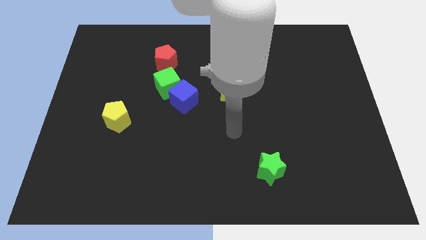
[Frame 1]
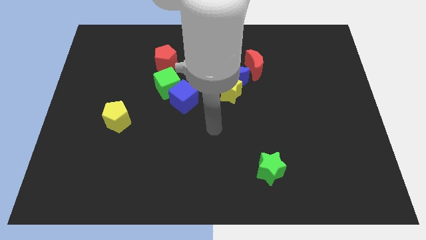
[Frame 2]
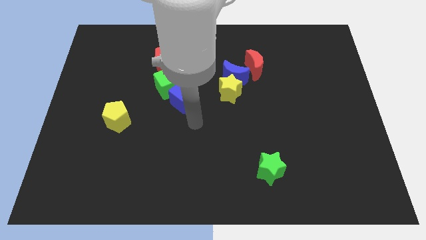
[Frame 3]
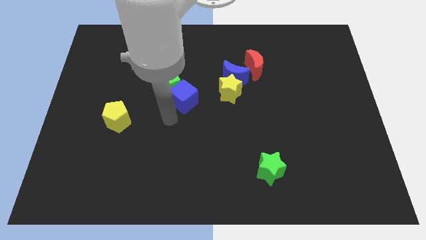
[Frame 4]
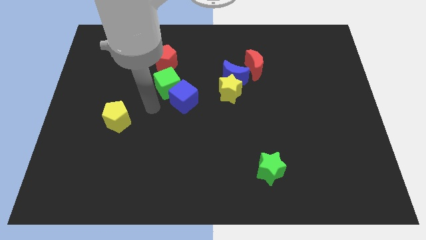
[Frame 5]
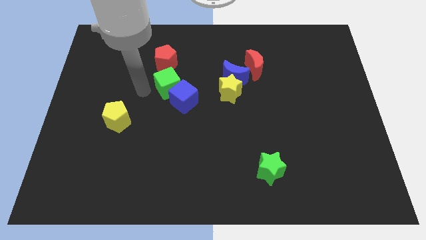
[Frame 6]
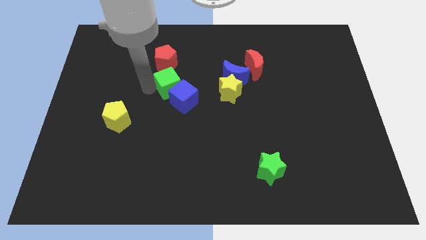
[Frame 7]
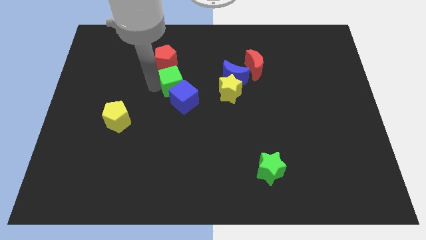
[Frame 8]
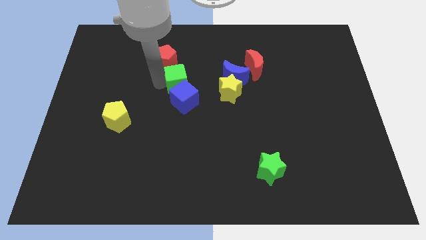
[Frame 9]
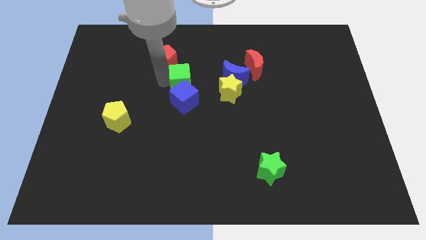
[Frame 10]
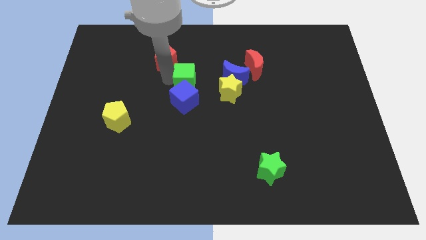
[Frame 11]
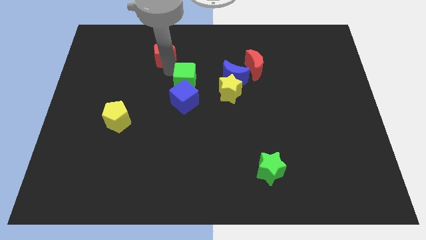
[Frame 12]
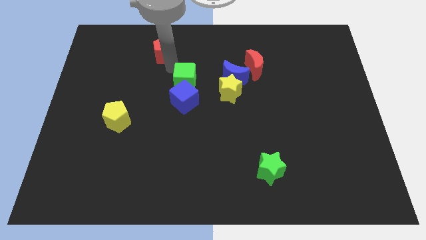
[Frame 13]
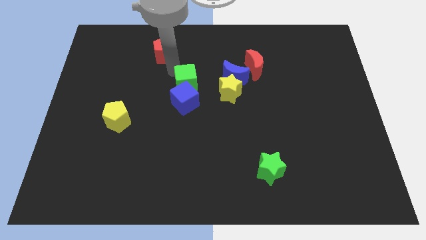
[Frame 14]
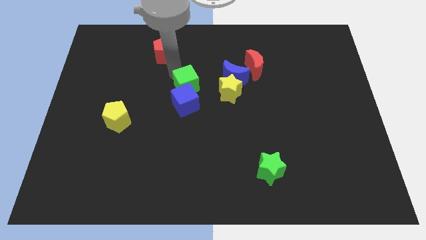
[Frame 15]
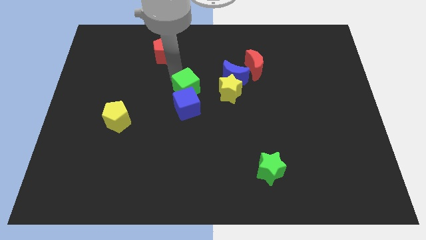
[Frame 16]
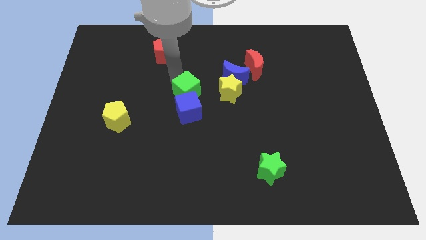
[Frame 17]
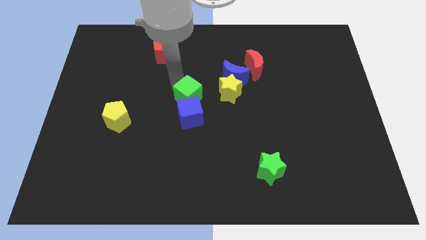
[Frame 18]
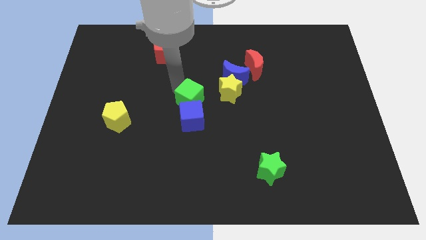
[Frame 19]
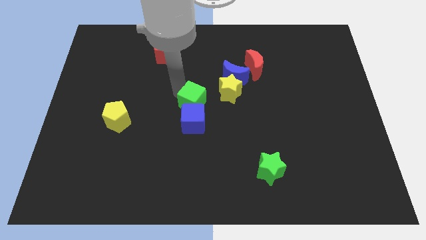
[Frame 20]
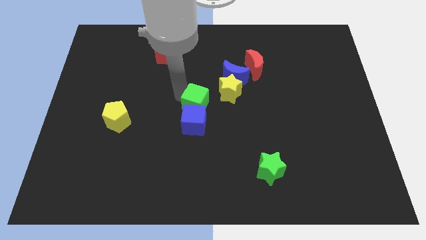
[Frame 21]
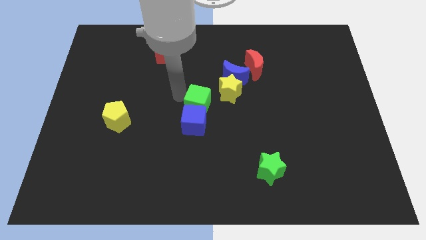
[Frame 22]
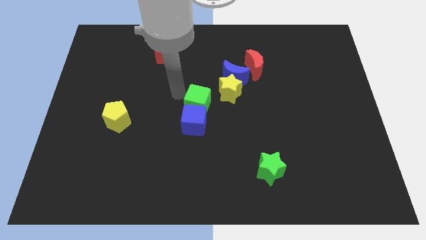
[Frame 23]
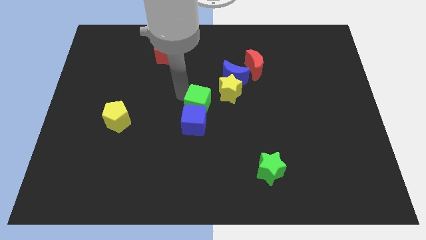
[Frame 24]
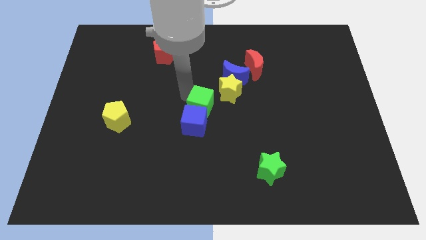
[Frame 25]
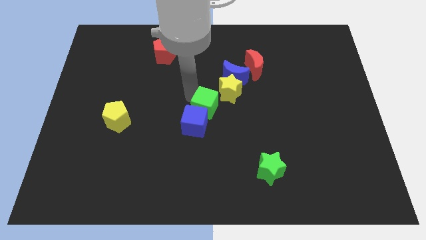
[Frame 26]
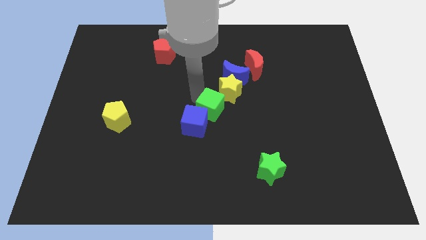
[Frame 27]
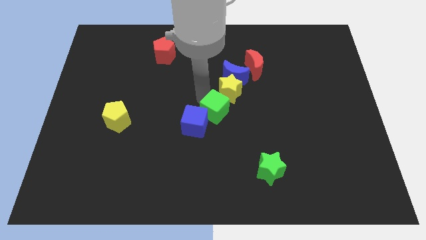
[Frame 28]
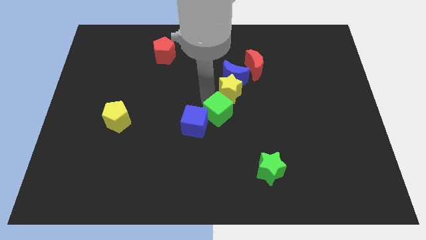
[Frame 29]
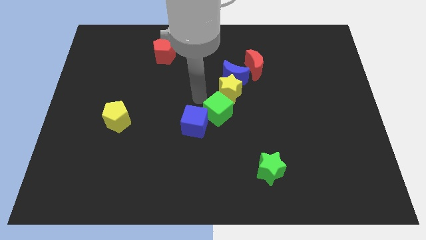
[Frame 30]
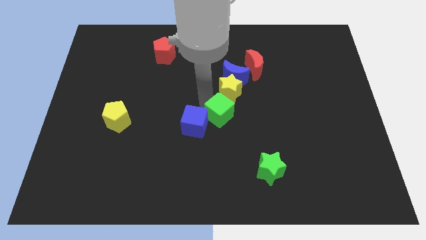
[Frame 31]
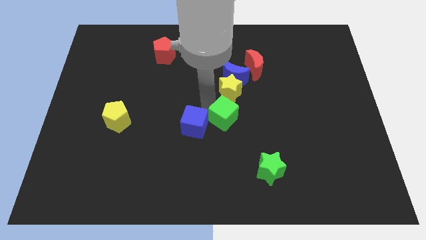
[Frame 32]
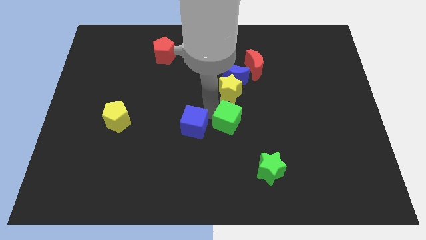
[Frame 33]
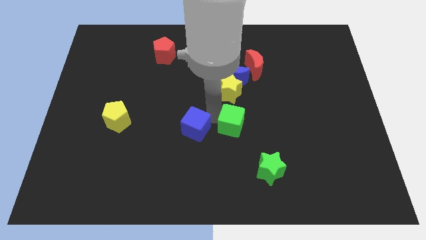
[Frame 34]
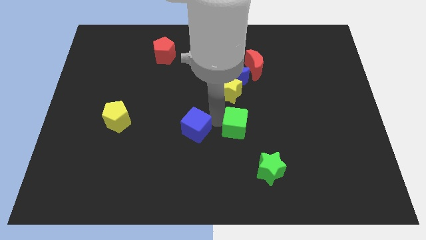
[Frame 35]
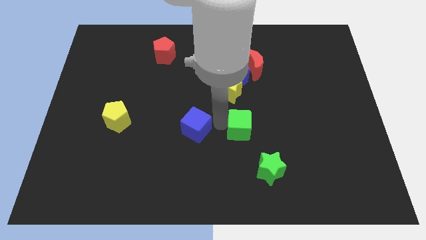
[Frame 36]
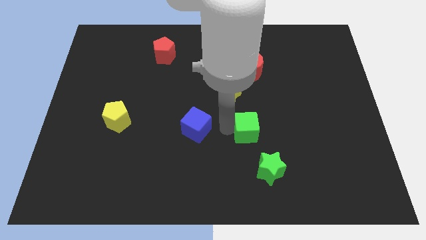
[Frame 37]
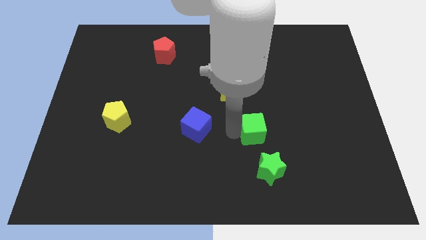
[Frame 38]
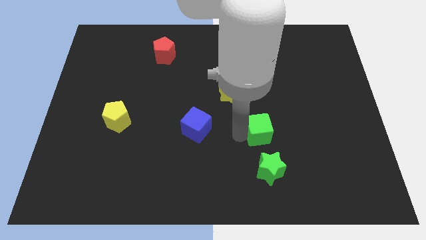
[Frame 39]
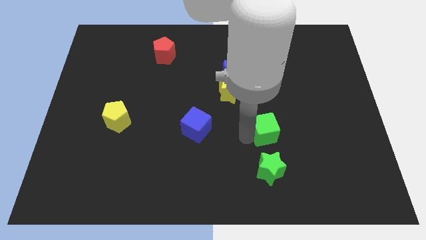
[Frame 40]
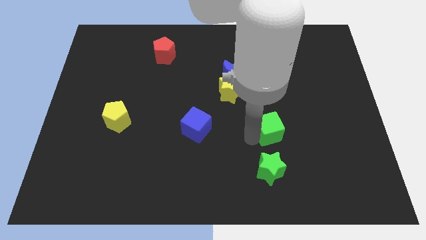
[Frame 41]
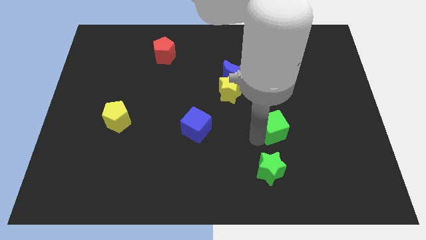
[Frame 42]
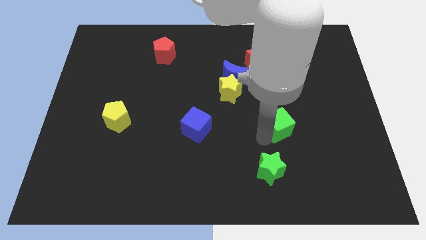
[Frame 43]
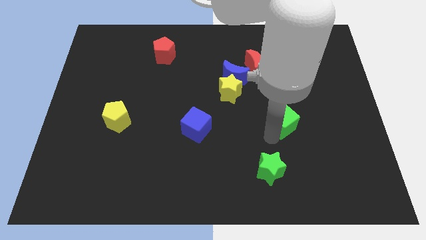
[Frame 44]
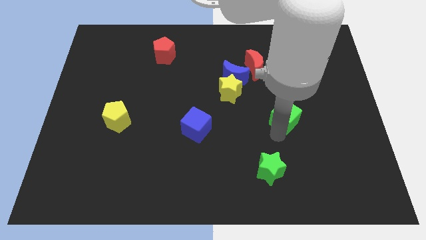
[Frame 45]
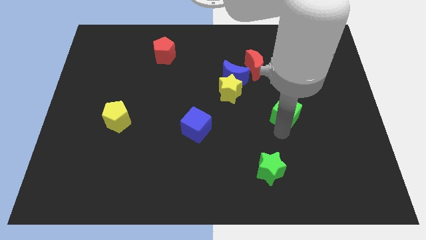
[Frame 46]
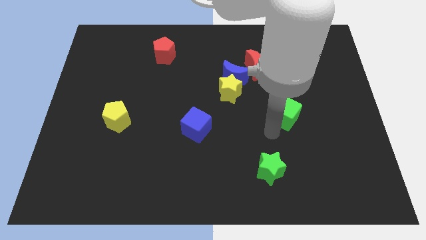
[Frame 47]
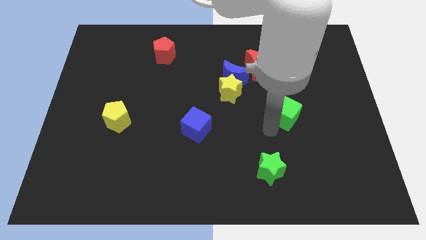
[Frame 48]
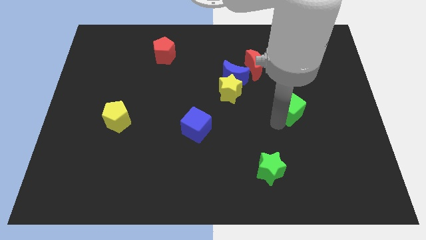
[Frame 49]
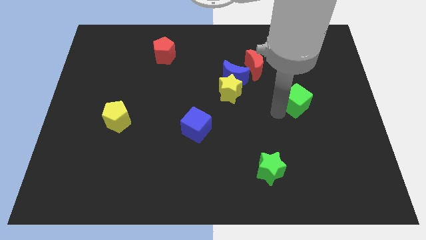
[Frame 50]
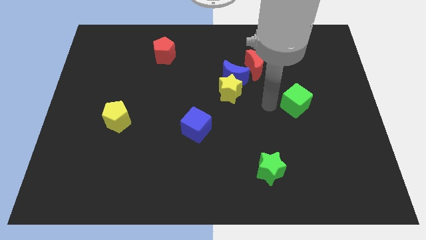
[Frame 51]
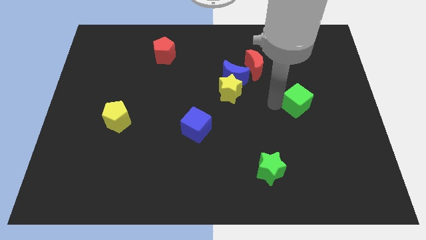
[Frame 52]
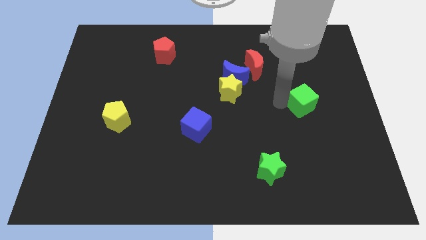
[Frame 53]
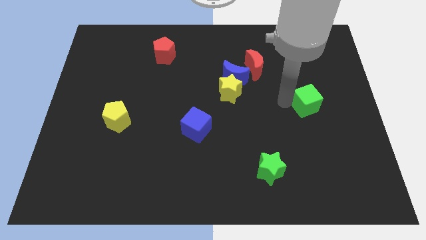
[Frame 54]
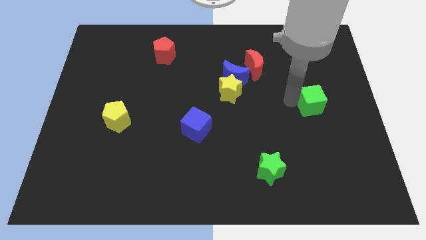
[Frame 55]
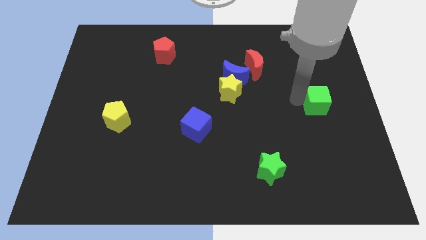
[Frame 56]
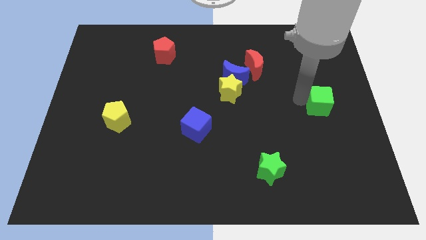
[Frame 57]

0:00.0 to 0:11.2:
put the green cube to the center right
